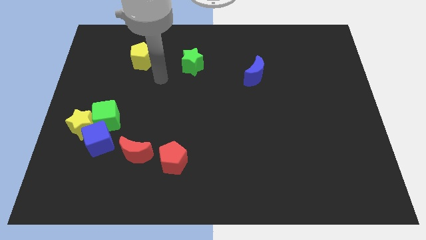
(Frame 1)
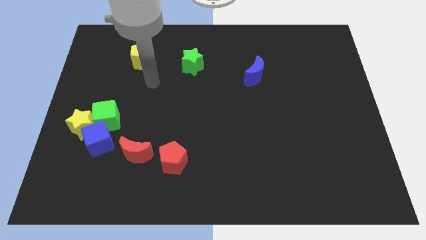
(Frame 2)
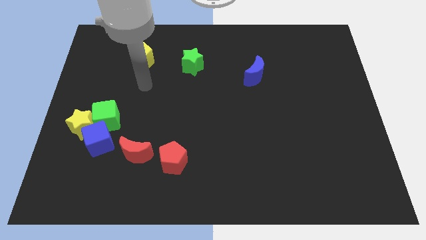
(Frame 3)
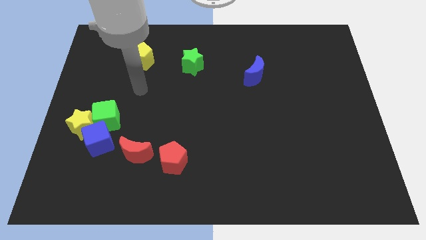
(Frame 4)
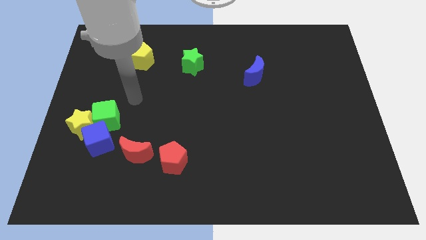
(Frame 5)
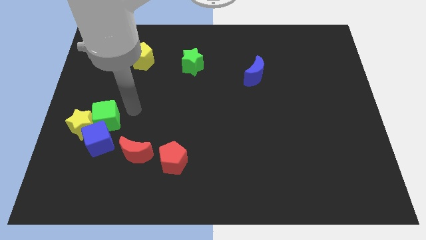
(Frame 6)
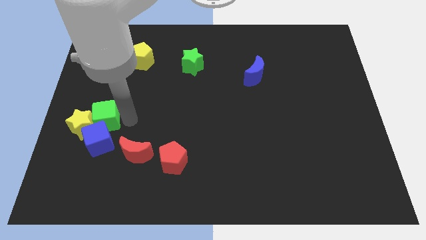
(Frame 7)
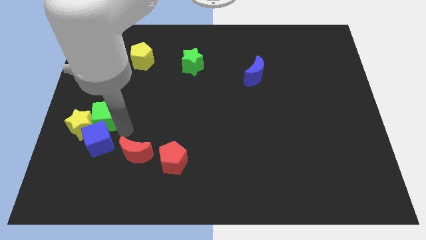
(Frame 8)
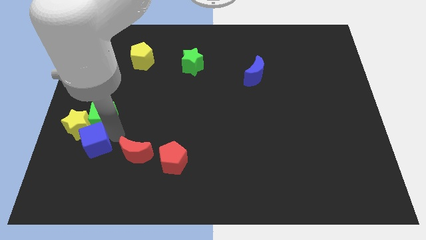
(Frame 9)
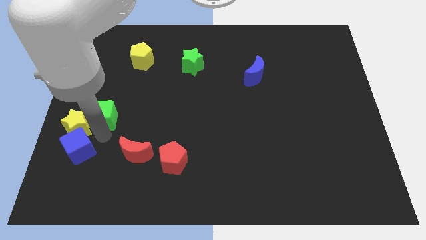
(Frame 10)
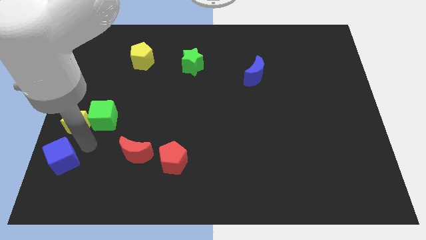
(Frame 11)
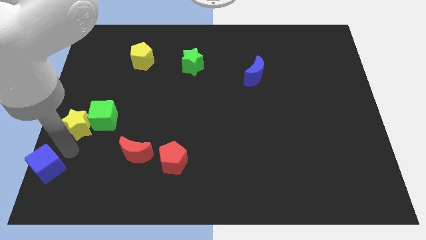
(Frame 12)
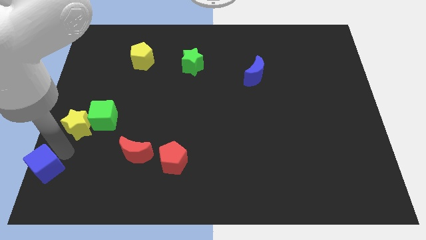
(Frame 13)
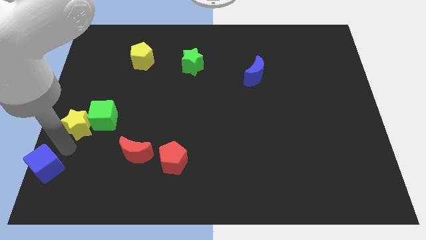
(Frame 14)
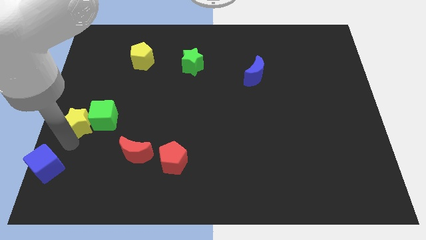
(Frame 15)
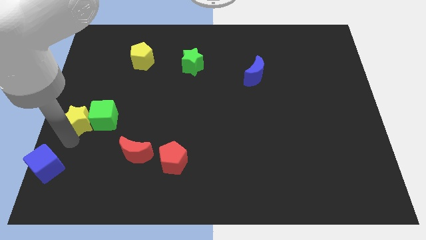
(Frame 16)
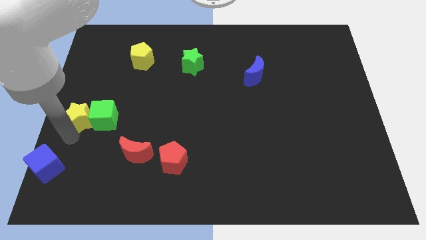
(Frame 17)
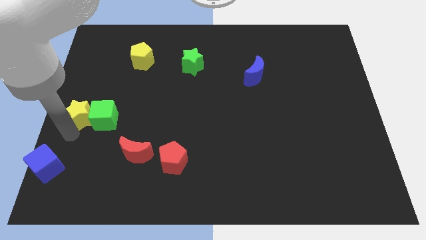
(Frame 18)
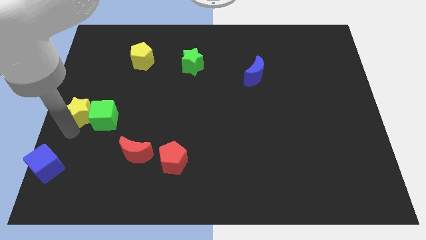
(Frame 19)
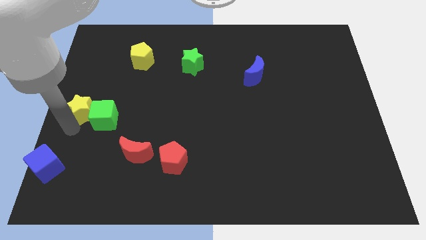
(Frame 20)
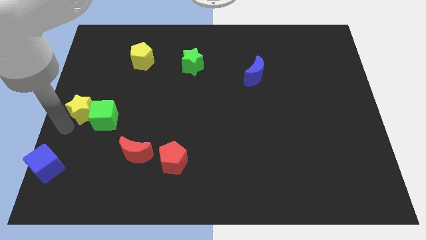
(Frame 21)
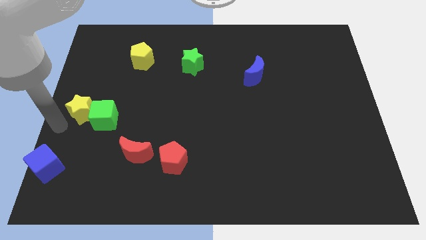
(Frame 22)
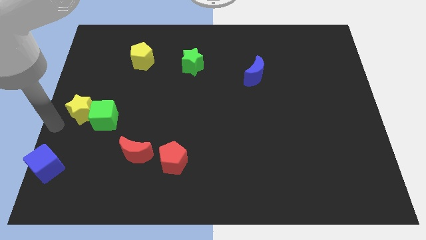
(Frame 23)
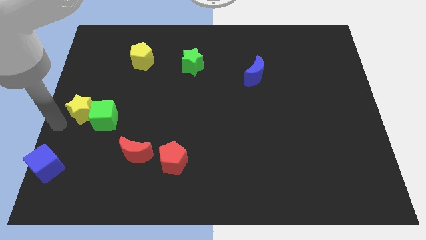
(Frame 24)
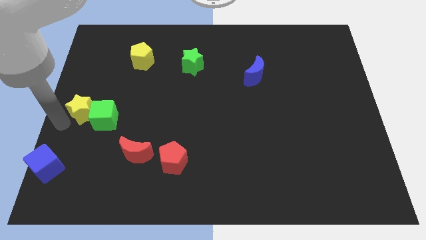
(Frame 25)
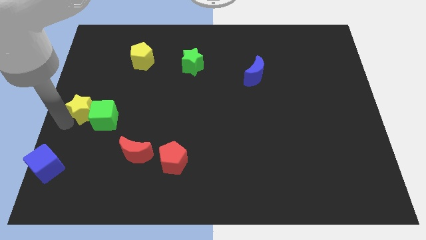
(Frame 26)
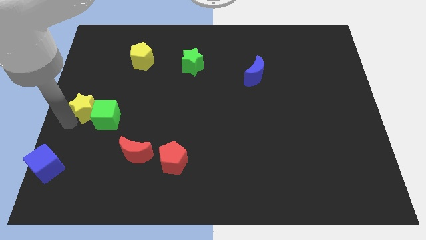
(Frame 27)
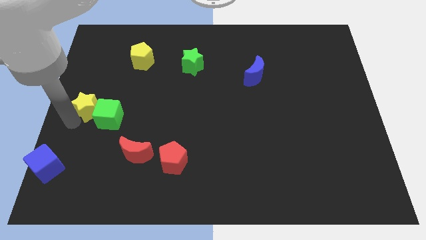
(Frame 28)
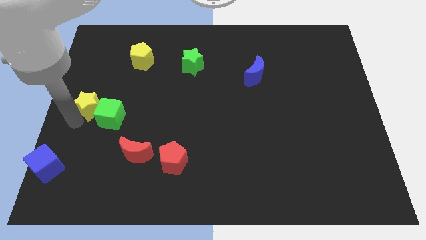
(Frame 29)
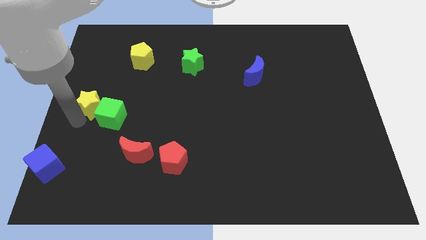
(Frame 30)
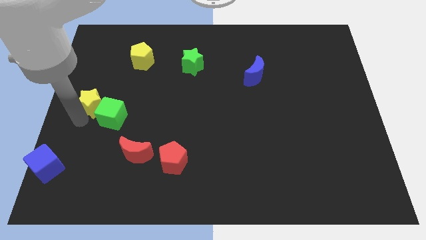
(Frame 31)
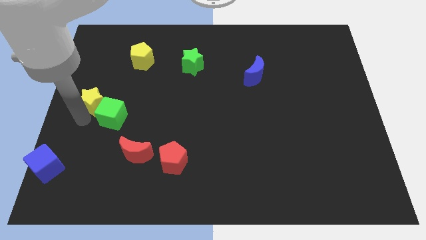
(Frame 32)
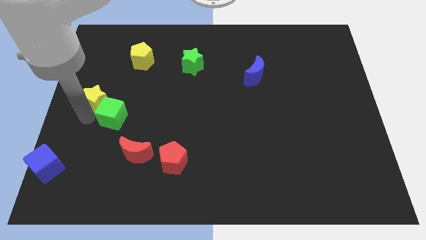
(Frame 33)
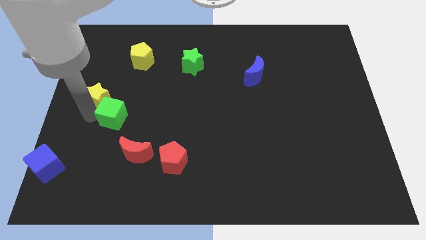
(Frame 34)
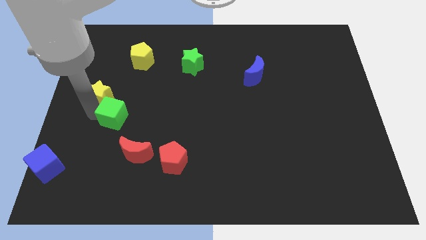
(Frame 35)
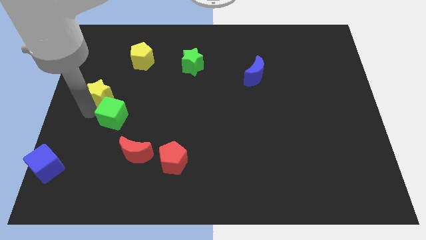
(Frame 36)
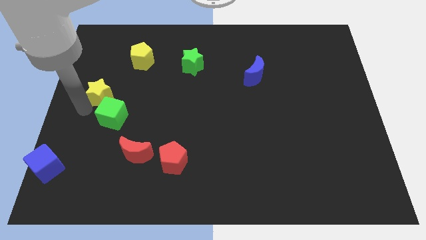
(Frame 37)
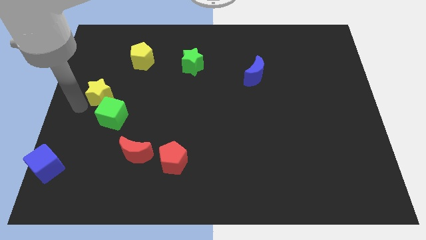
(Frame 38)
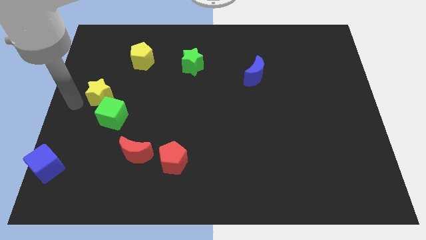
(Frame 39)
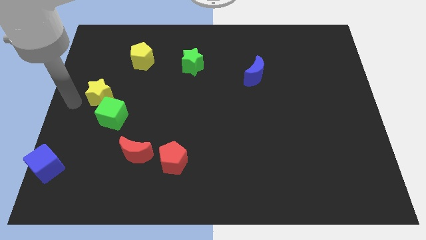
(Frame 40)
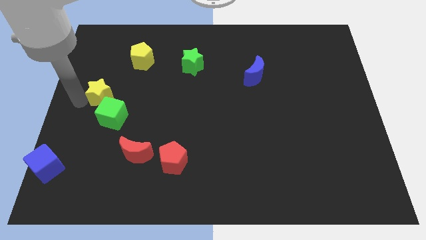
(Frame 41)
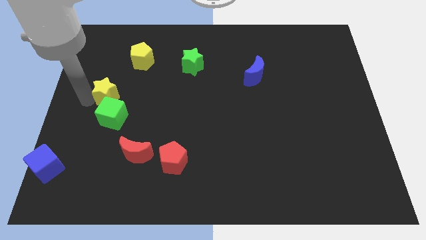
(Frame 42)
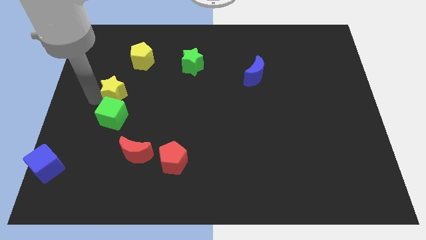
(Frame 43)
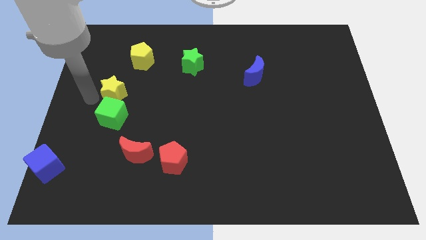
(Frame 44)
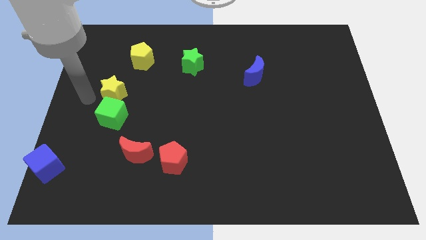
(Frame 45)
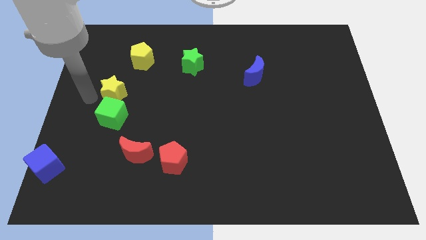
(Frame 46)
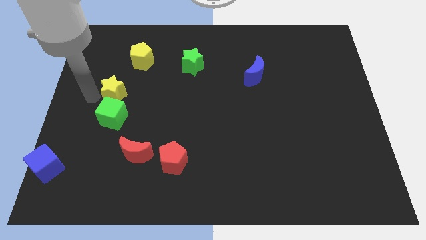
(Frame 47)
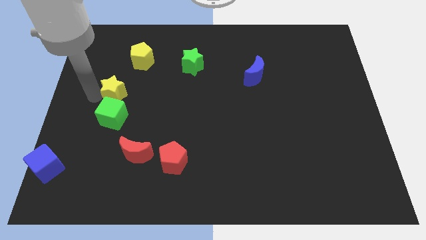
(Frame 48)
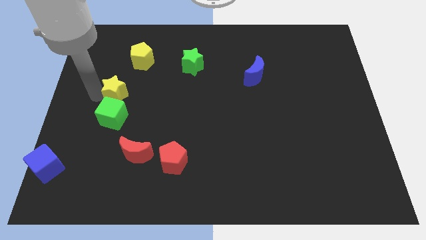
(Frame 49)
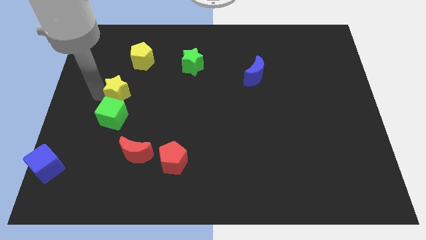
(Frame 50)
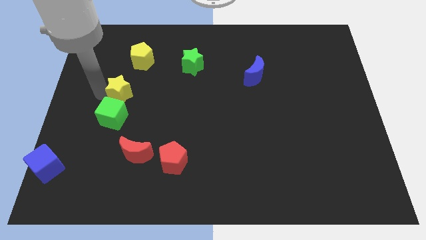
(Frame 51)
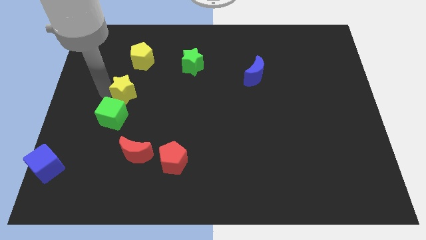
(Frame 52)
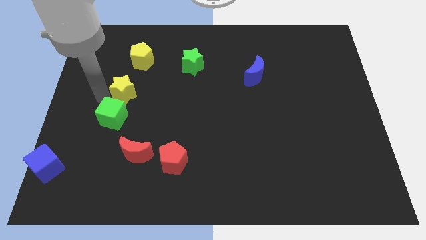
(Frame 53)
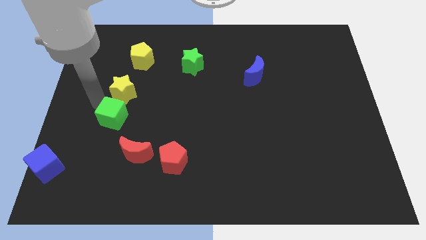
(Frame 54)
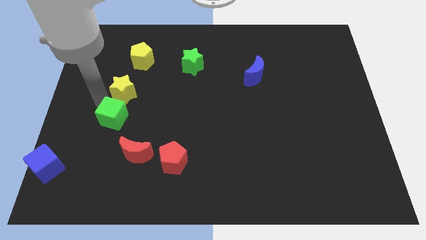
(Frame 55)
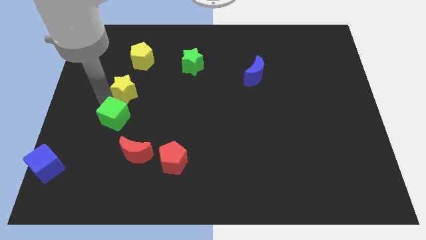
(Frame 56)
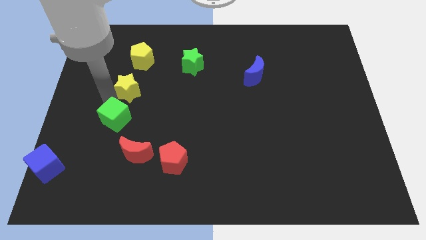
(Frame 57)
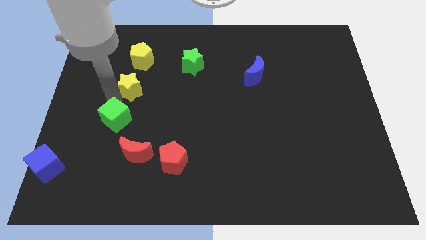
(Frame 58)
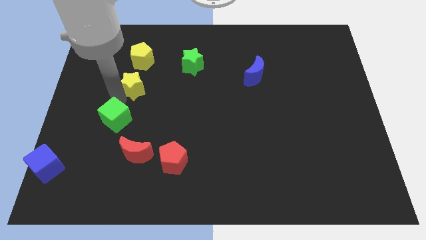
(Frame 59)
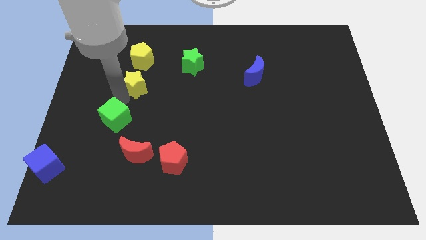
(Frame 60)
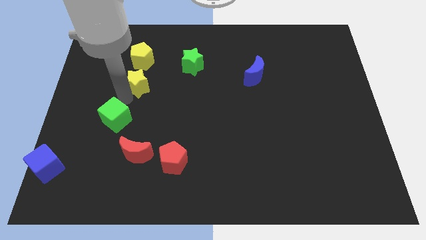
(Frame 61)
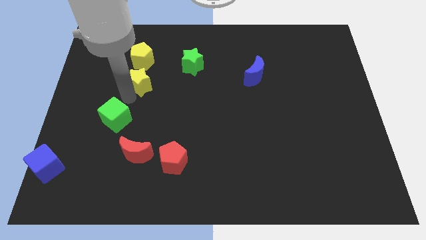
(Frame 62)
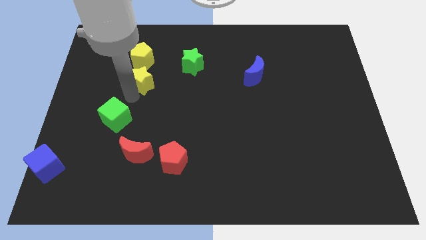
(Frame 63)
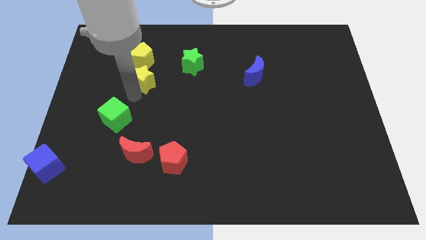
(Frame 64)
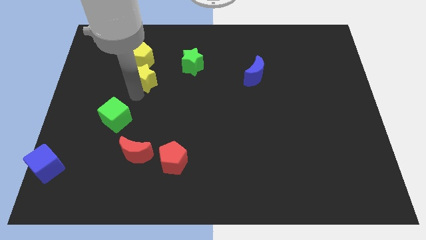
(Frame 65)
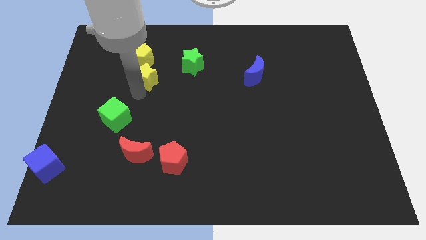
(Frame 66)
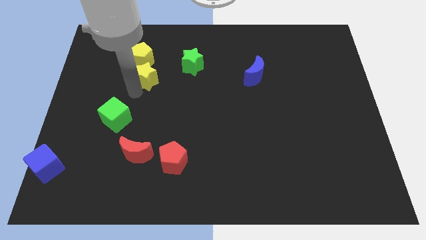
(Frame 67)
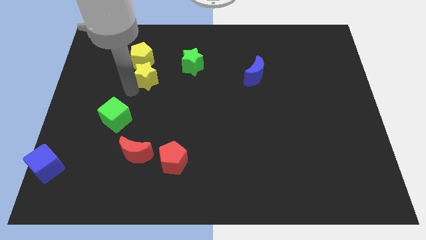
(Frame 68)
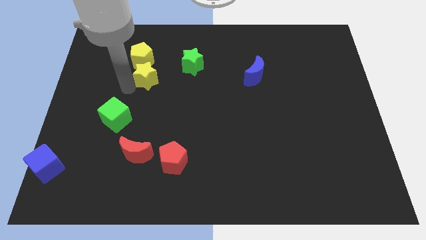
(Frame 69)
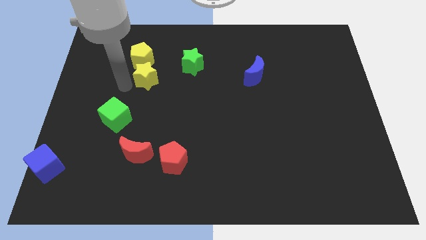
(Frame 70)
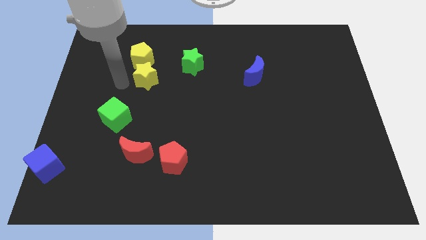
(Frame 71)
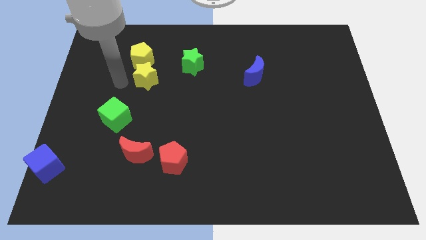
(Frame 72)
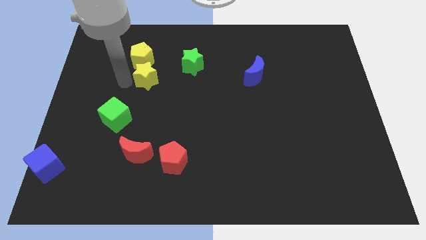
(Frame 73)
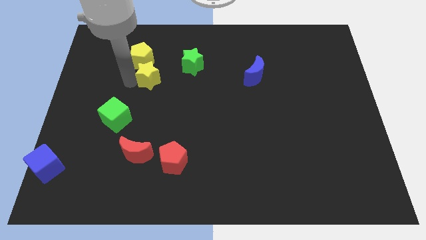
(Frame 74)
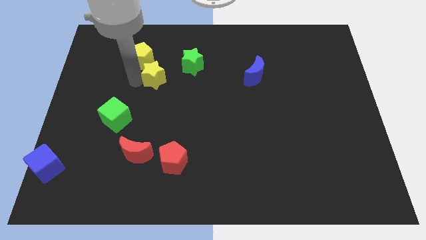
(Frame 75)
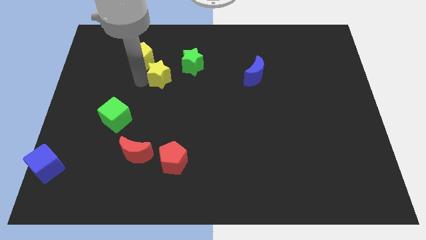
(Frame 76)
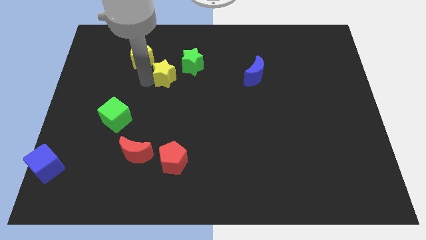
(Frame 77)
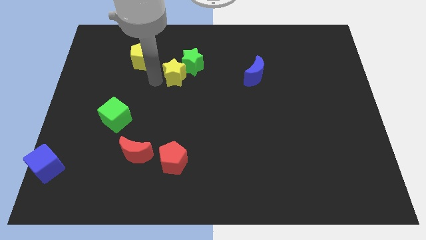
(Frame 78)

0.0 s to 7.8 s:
move the yellow star towards the green star
